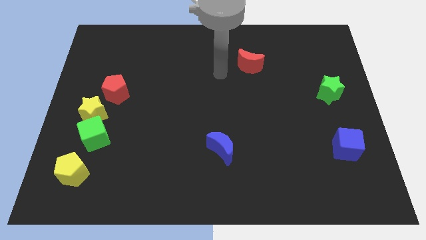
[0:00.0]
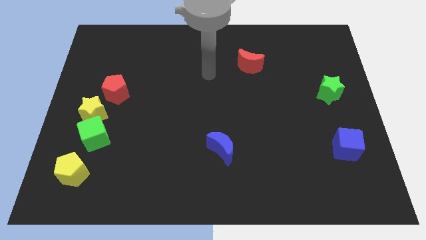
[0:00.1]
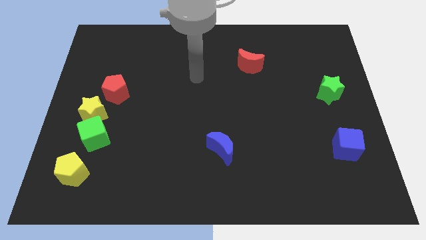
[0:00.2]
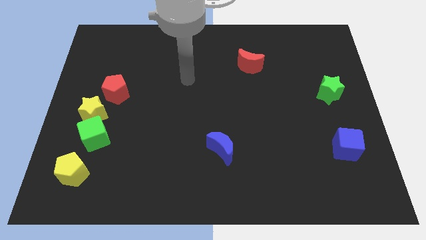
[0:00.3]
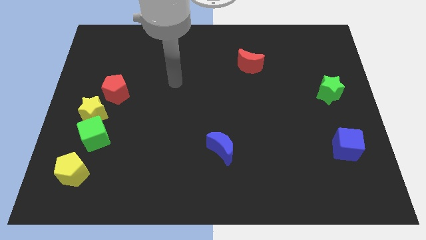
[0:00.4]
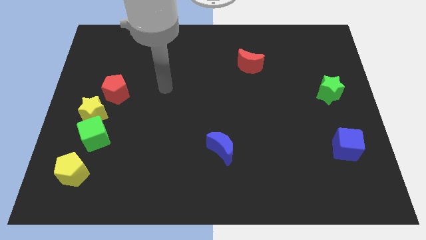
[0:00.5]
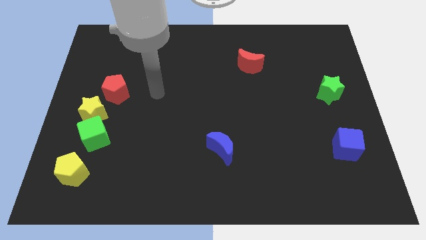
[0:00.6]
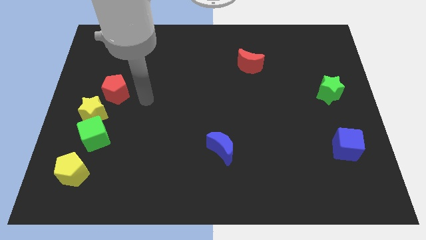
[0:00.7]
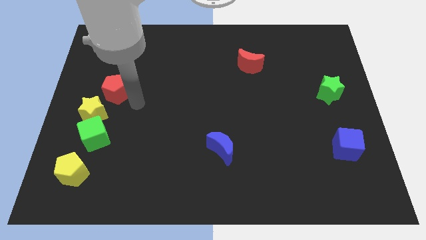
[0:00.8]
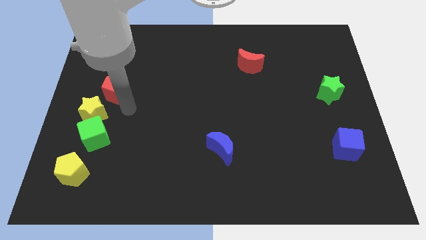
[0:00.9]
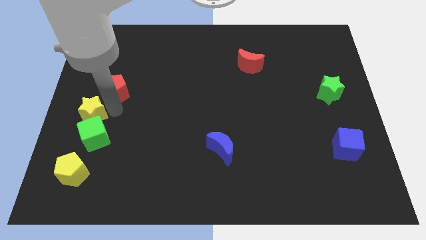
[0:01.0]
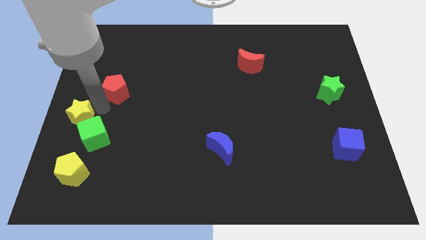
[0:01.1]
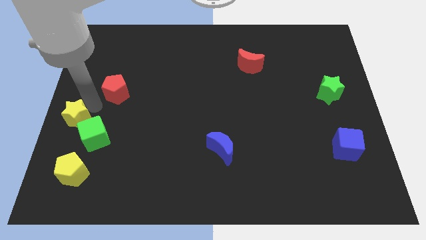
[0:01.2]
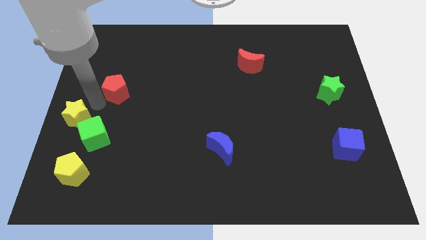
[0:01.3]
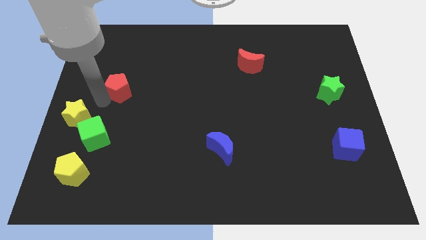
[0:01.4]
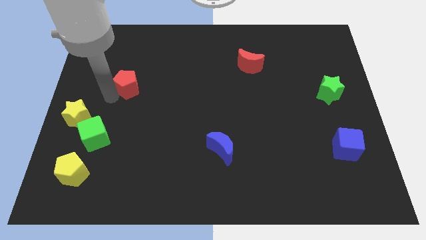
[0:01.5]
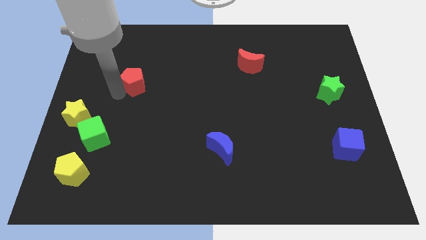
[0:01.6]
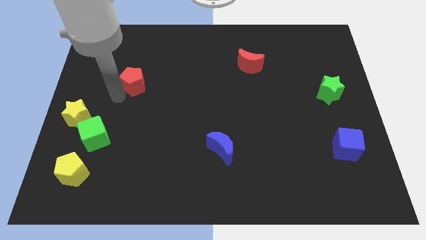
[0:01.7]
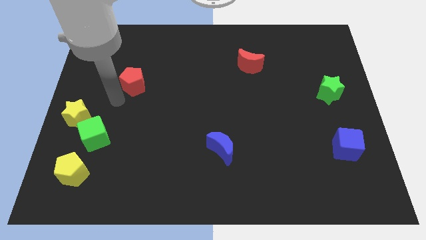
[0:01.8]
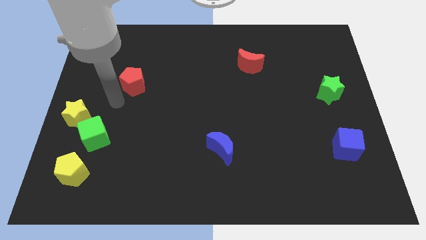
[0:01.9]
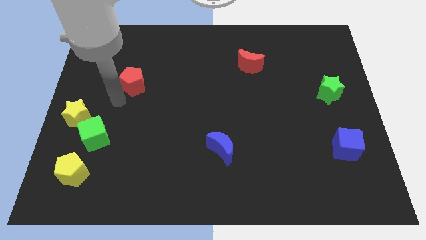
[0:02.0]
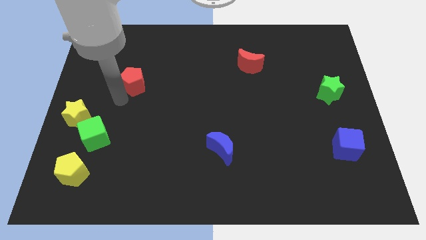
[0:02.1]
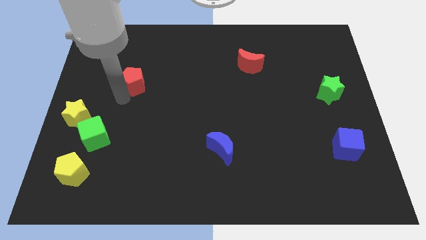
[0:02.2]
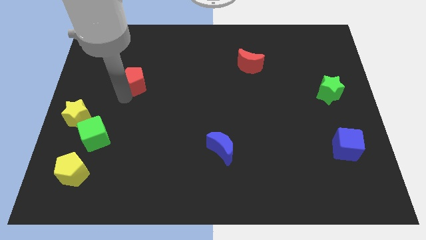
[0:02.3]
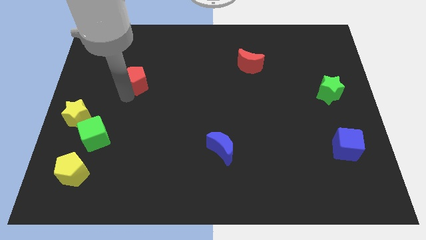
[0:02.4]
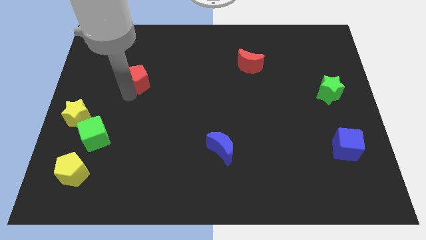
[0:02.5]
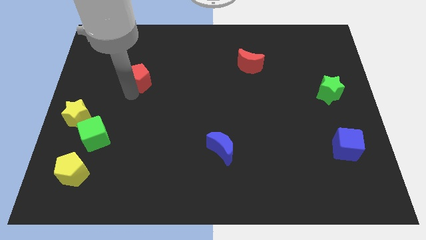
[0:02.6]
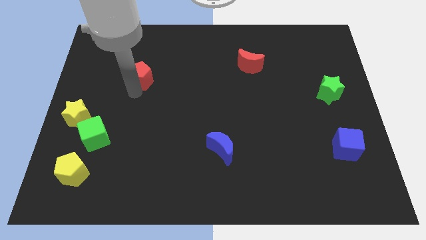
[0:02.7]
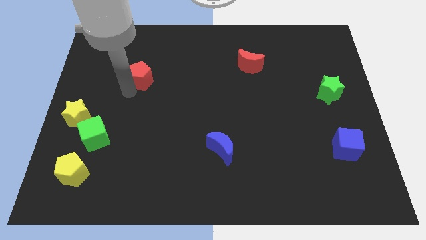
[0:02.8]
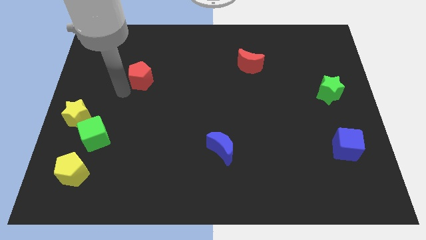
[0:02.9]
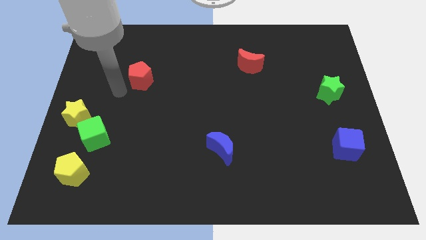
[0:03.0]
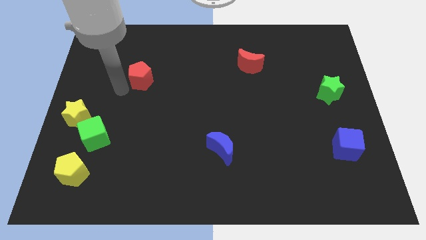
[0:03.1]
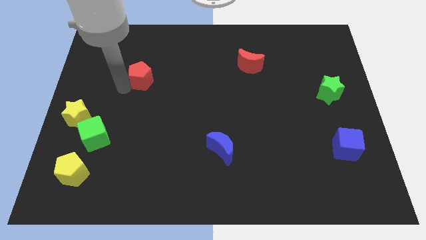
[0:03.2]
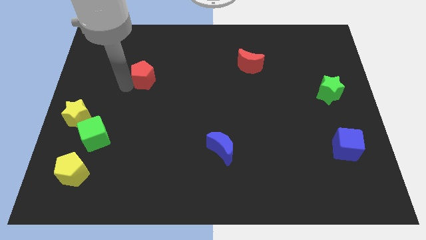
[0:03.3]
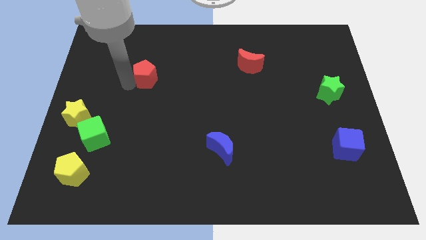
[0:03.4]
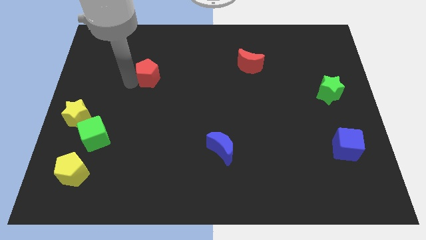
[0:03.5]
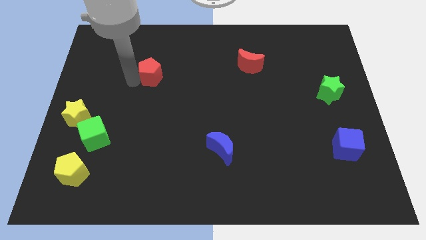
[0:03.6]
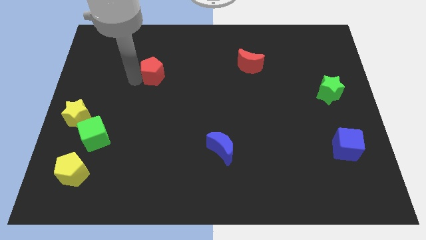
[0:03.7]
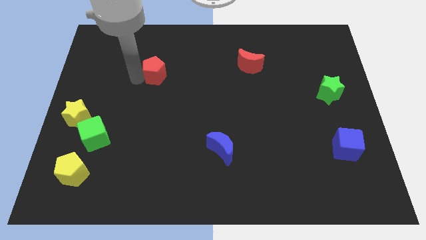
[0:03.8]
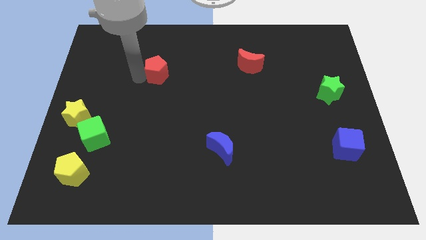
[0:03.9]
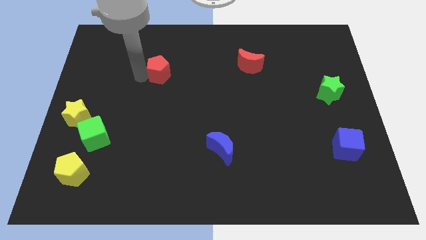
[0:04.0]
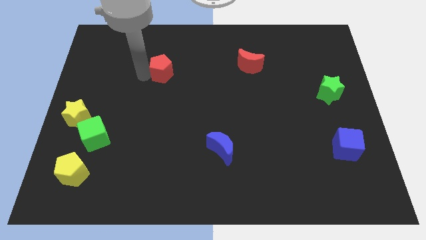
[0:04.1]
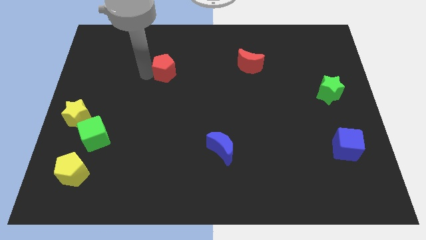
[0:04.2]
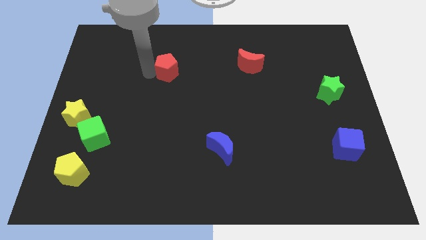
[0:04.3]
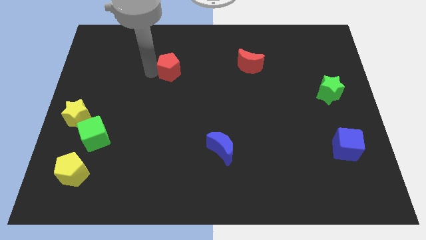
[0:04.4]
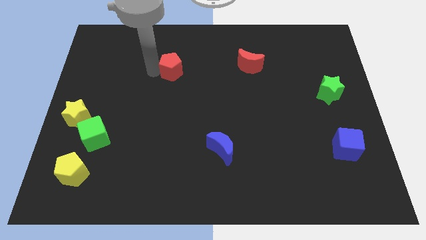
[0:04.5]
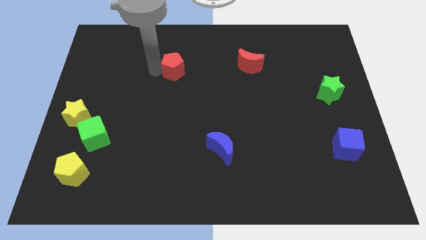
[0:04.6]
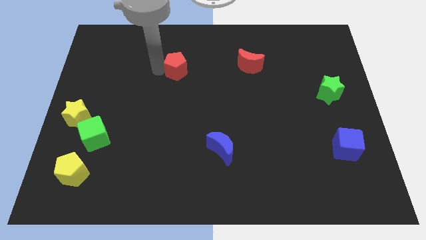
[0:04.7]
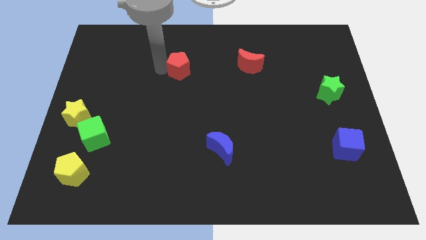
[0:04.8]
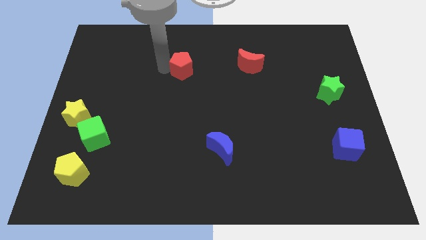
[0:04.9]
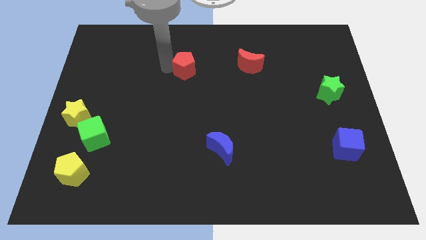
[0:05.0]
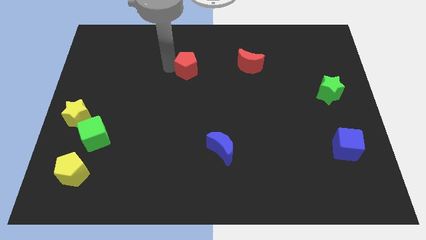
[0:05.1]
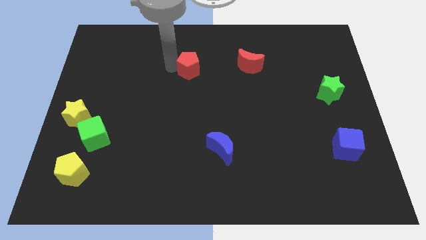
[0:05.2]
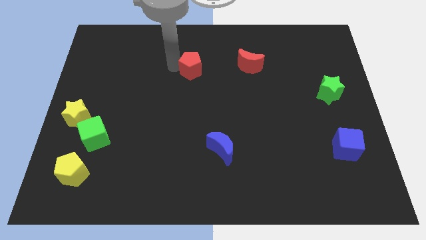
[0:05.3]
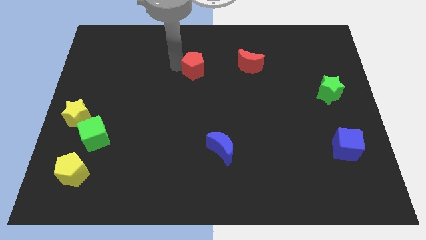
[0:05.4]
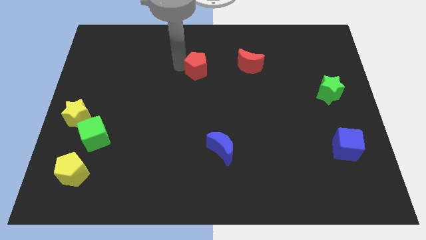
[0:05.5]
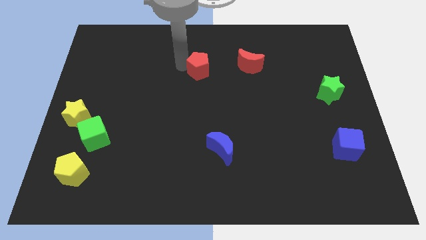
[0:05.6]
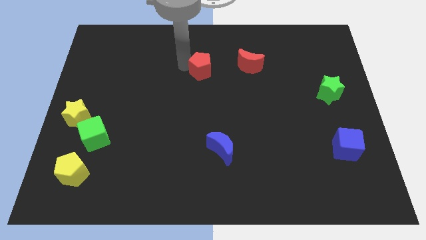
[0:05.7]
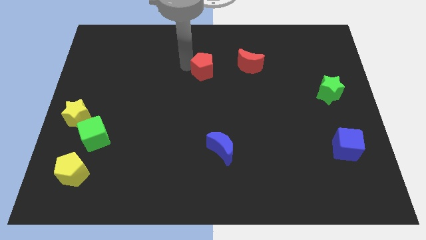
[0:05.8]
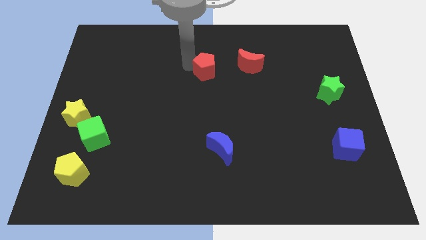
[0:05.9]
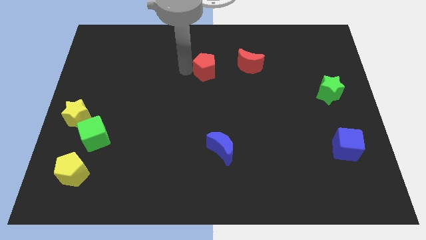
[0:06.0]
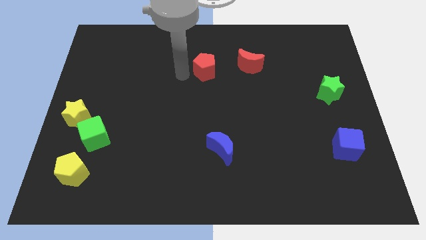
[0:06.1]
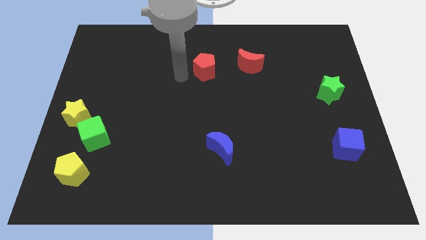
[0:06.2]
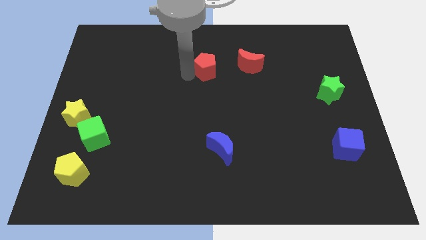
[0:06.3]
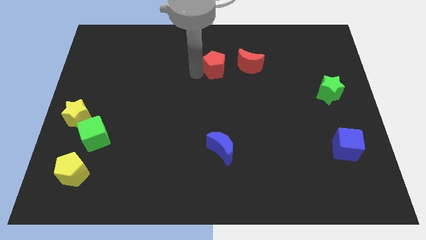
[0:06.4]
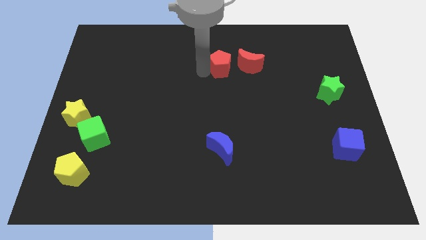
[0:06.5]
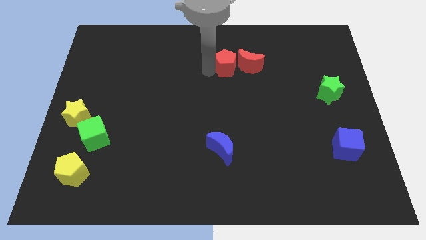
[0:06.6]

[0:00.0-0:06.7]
move the red pentagon close to the red moon

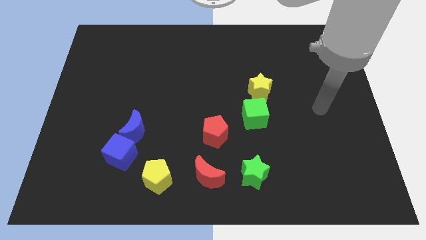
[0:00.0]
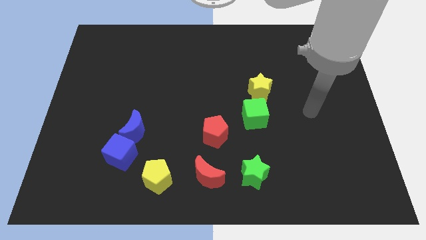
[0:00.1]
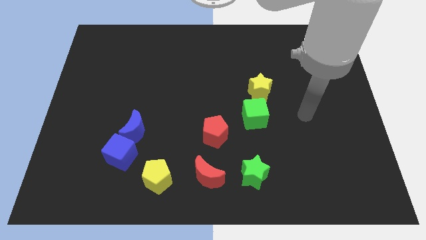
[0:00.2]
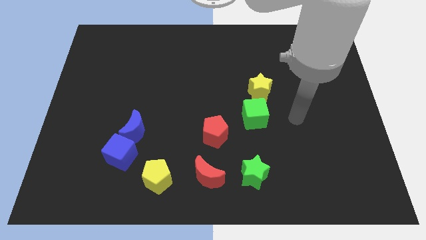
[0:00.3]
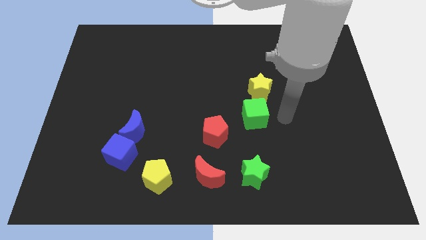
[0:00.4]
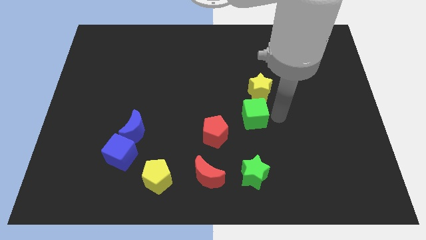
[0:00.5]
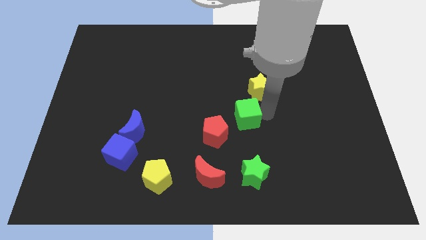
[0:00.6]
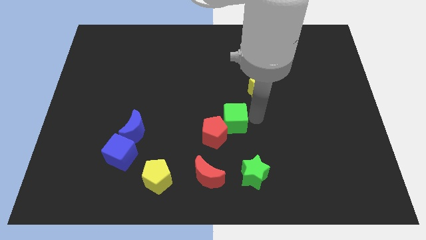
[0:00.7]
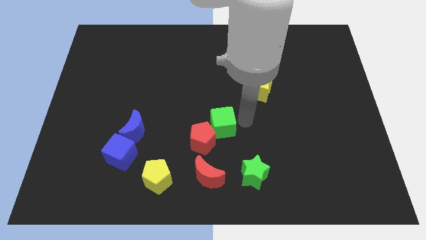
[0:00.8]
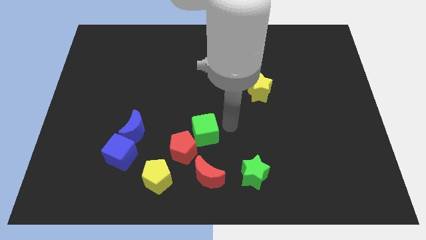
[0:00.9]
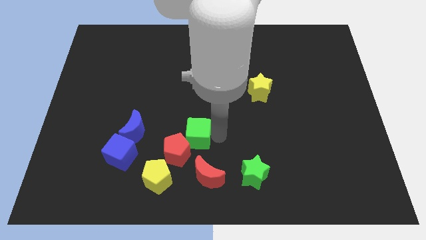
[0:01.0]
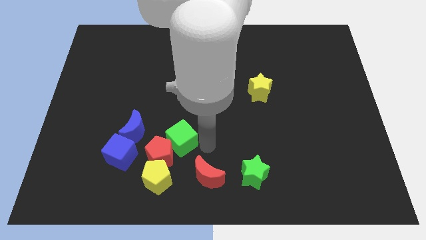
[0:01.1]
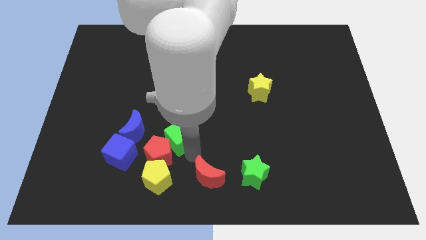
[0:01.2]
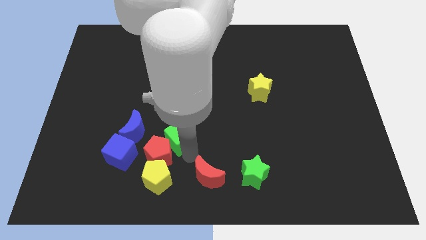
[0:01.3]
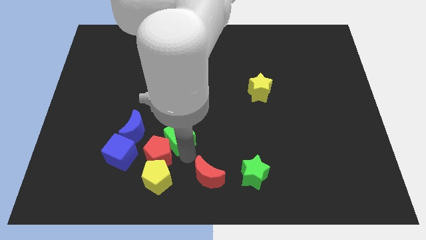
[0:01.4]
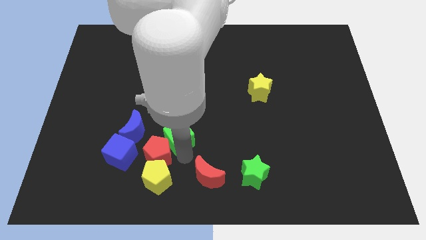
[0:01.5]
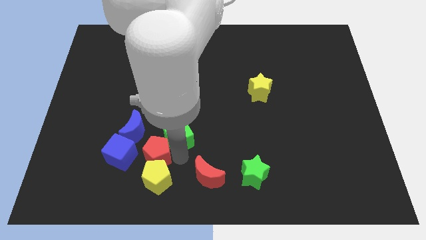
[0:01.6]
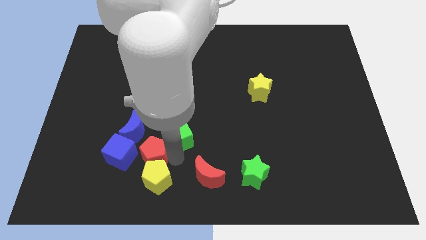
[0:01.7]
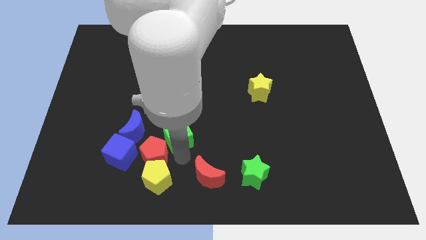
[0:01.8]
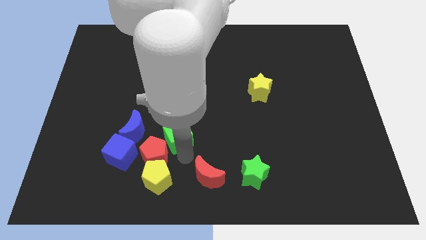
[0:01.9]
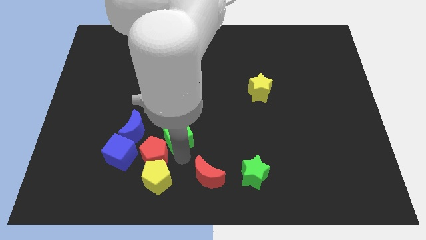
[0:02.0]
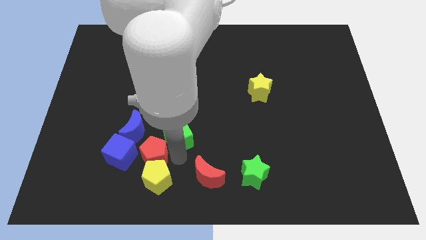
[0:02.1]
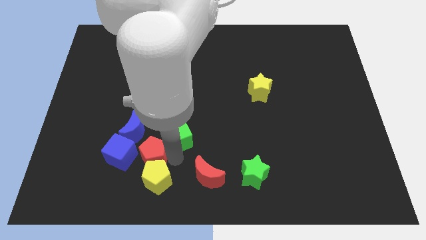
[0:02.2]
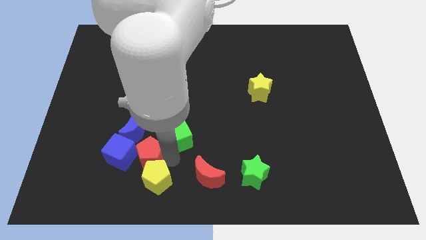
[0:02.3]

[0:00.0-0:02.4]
put the red pentagon to the blue cube
